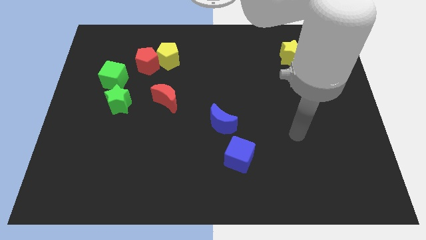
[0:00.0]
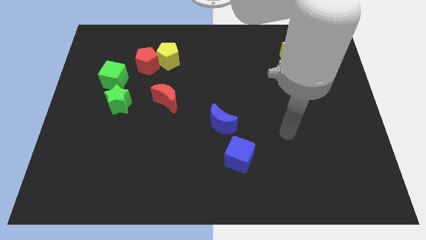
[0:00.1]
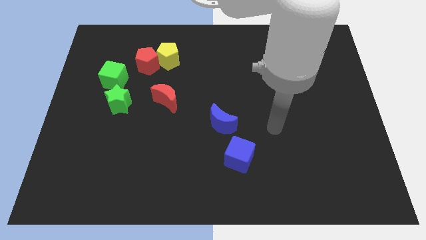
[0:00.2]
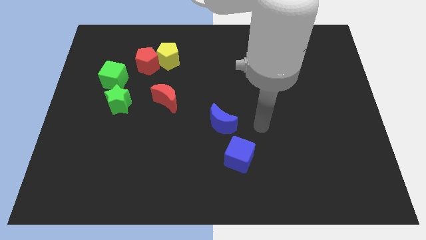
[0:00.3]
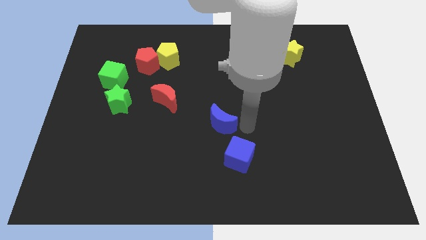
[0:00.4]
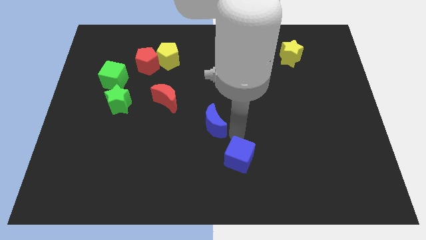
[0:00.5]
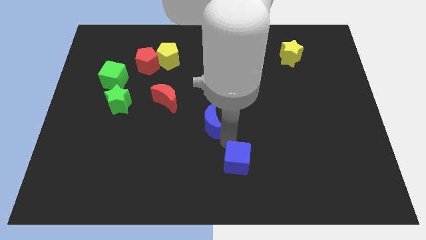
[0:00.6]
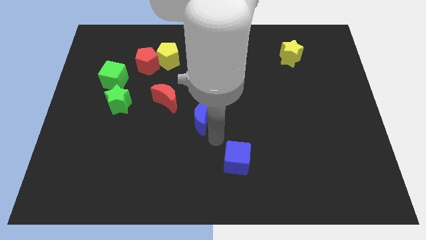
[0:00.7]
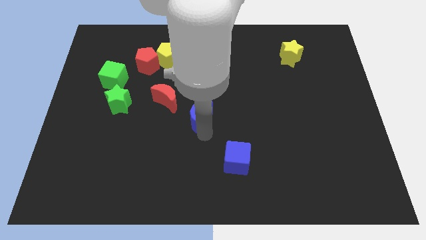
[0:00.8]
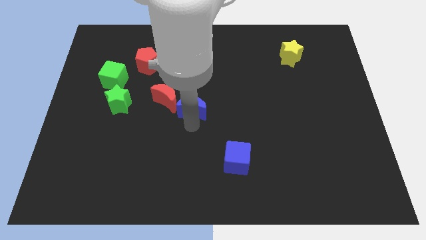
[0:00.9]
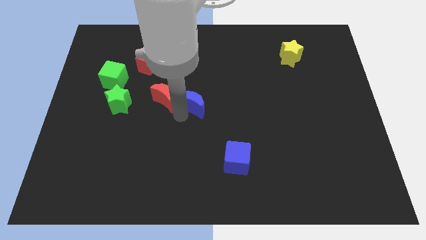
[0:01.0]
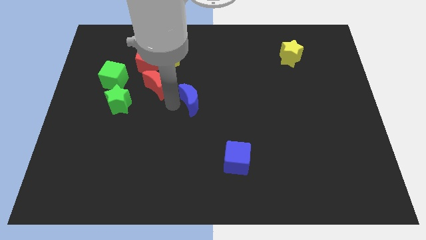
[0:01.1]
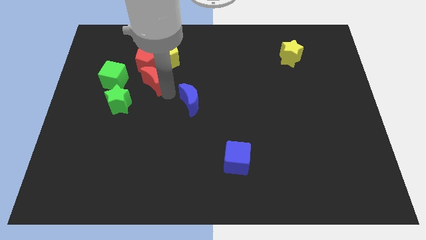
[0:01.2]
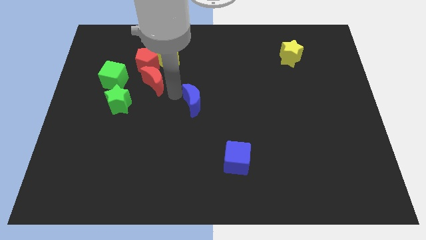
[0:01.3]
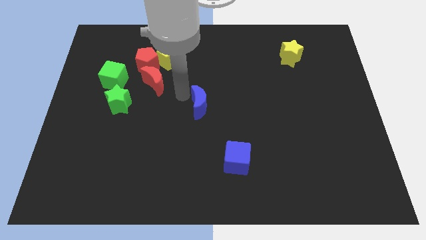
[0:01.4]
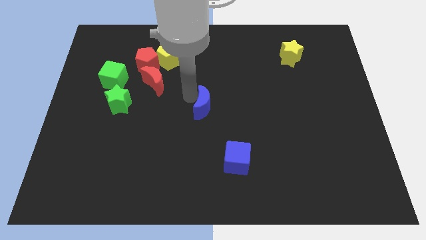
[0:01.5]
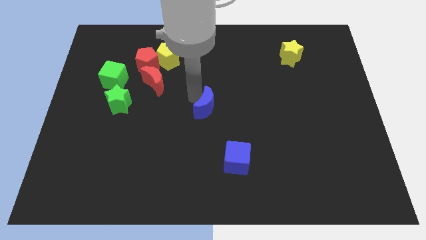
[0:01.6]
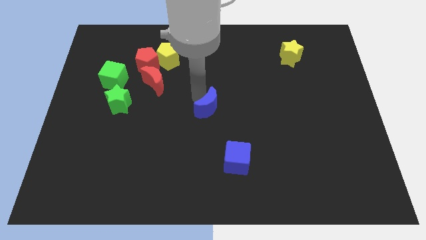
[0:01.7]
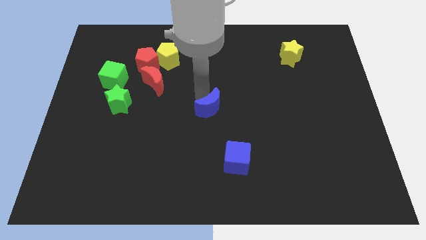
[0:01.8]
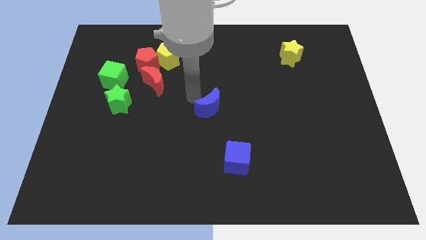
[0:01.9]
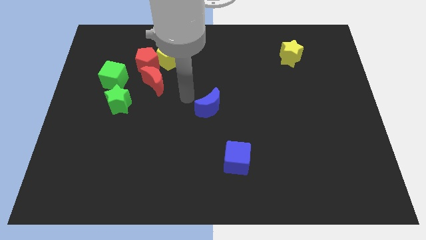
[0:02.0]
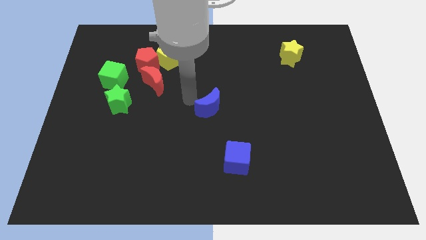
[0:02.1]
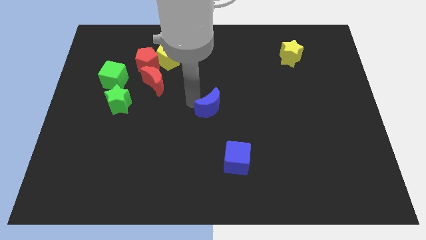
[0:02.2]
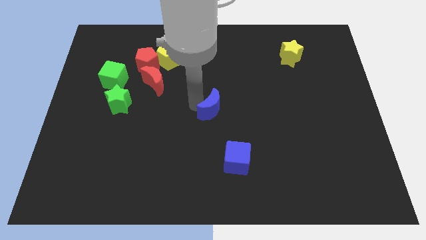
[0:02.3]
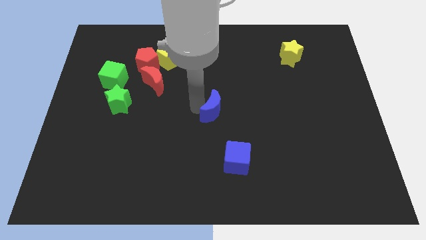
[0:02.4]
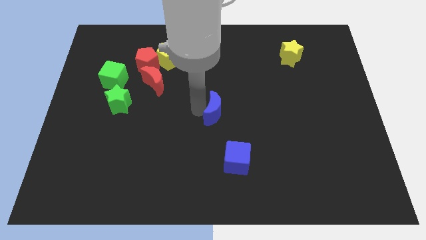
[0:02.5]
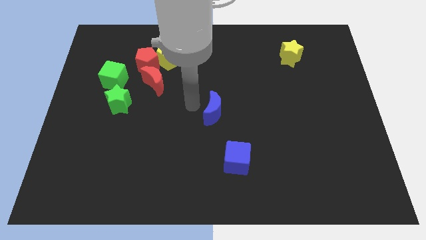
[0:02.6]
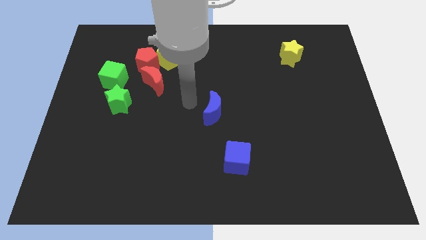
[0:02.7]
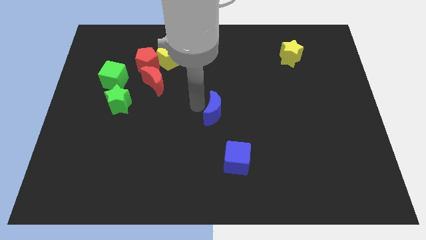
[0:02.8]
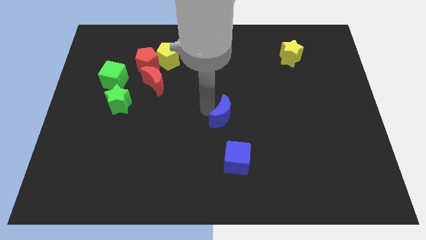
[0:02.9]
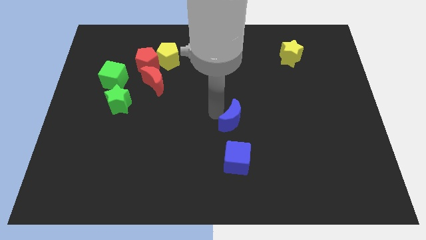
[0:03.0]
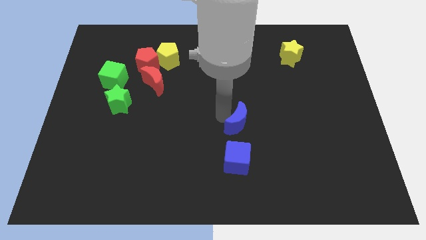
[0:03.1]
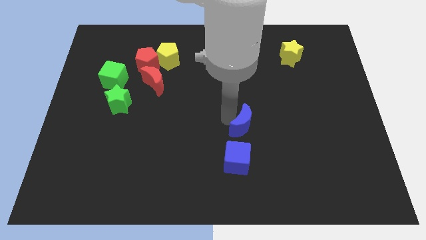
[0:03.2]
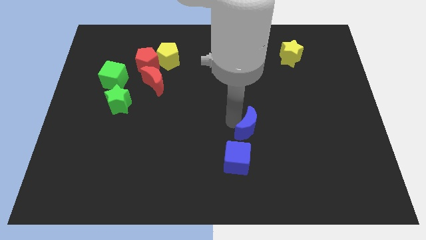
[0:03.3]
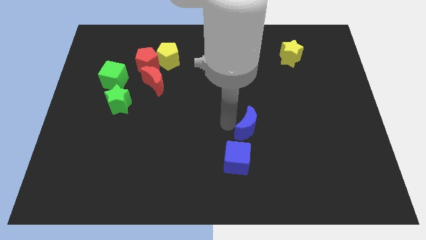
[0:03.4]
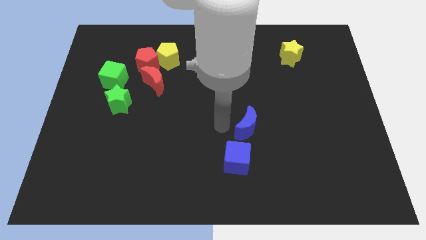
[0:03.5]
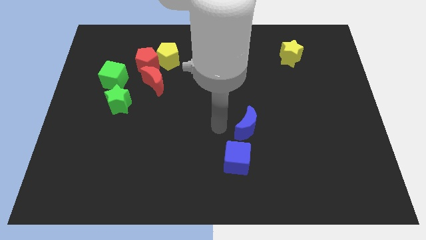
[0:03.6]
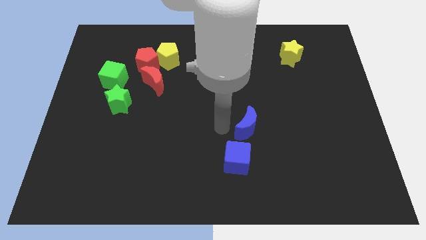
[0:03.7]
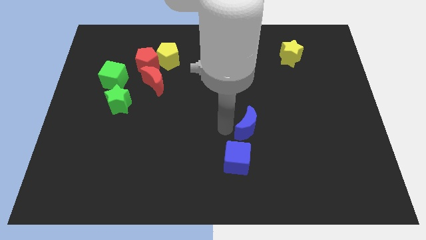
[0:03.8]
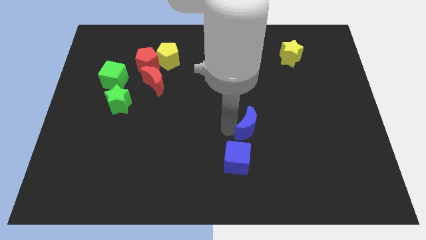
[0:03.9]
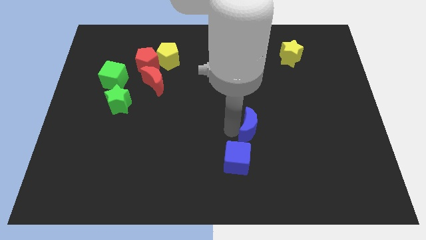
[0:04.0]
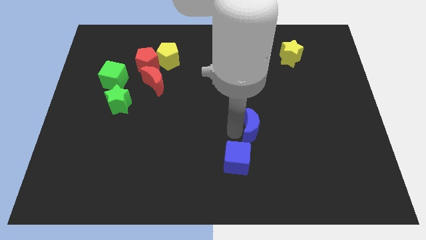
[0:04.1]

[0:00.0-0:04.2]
push the blue moon right a little bit

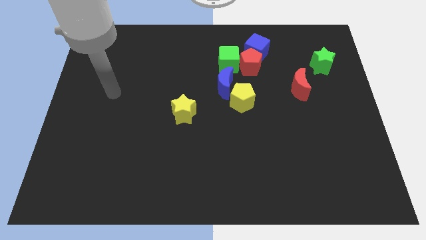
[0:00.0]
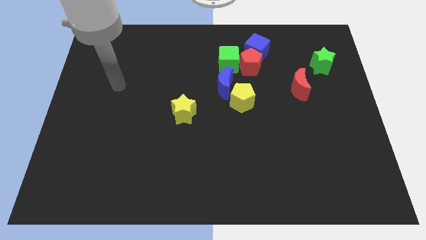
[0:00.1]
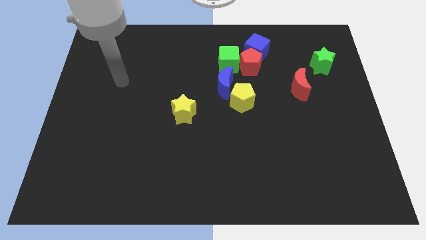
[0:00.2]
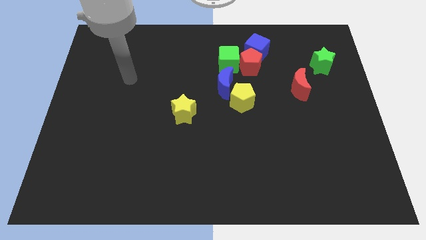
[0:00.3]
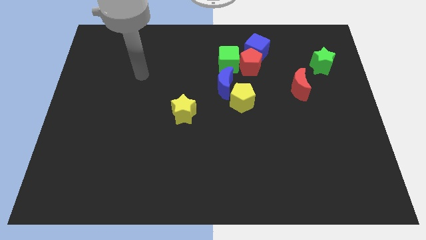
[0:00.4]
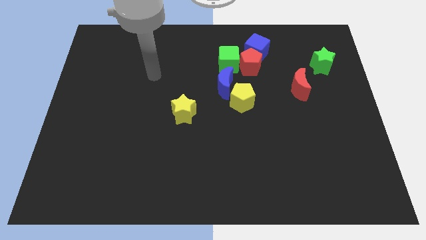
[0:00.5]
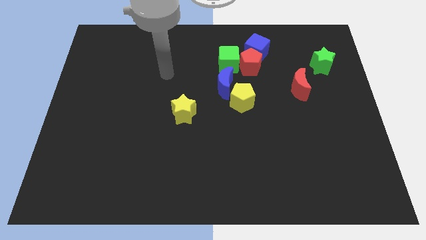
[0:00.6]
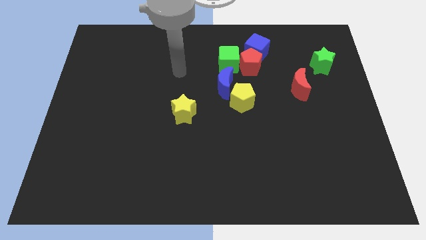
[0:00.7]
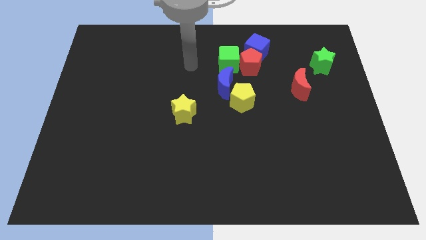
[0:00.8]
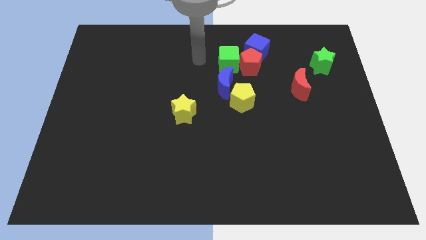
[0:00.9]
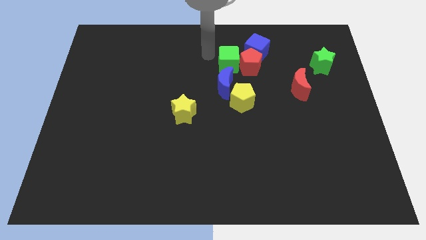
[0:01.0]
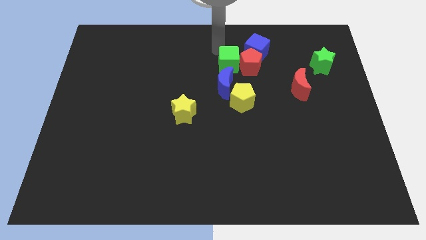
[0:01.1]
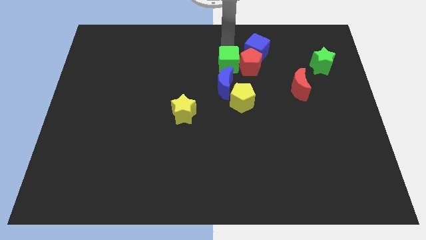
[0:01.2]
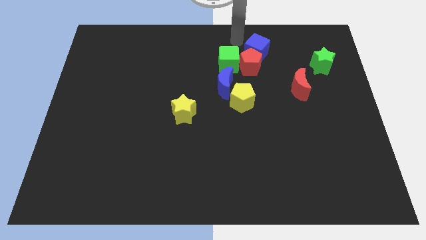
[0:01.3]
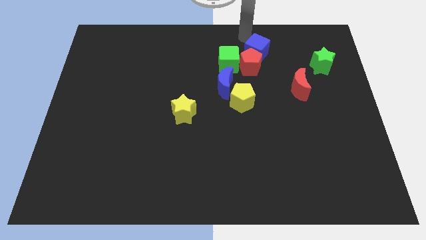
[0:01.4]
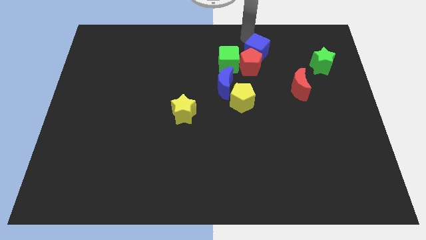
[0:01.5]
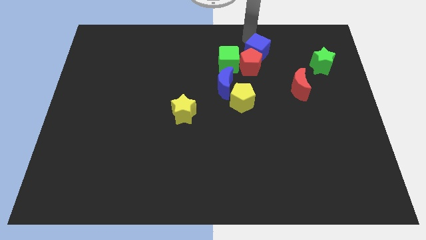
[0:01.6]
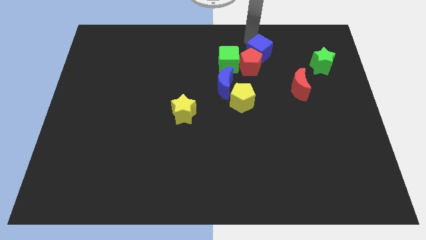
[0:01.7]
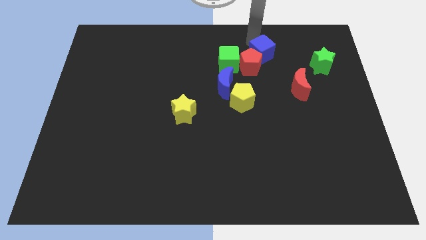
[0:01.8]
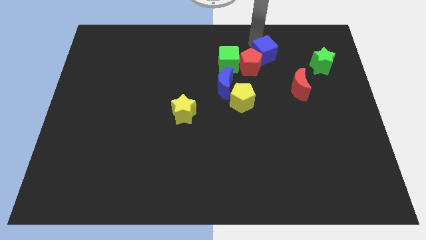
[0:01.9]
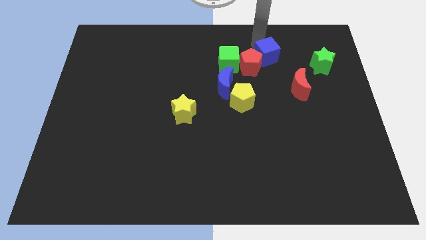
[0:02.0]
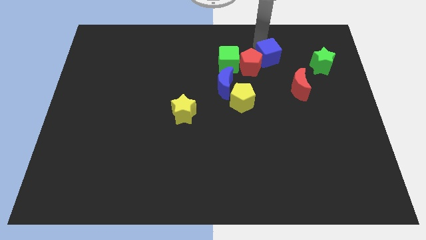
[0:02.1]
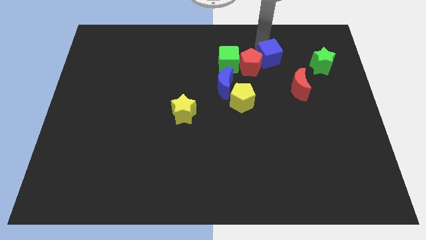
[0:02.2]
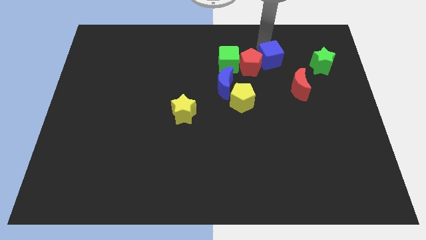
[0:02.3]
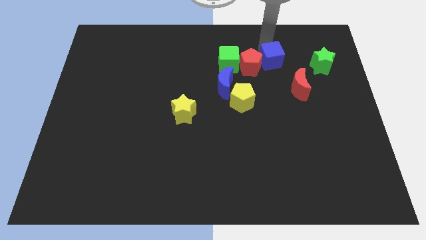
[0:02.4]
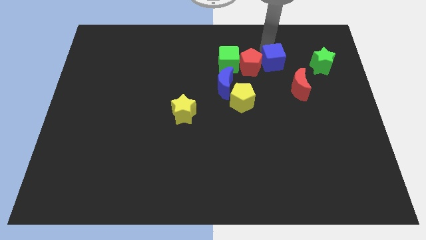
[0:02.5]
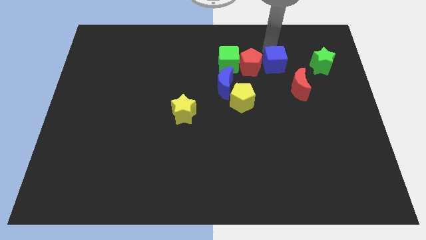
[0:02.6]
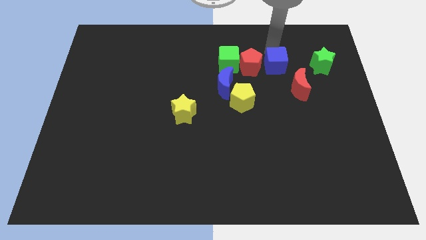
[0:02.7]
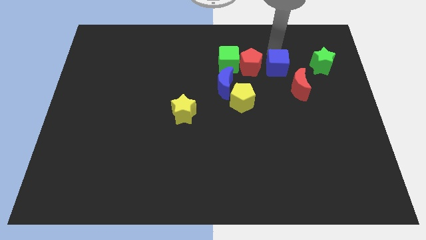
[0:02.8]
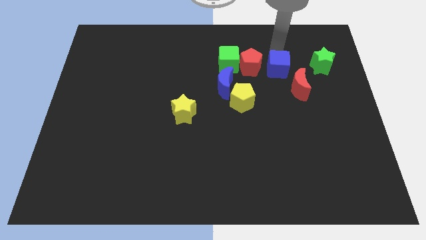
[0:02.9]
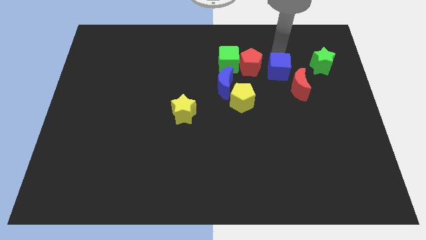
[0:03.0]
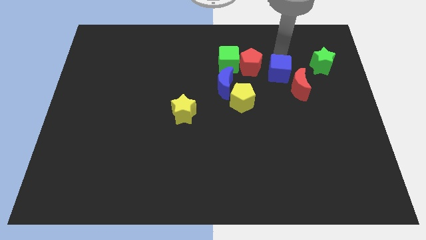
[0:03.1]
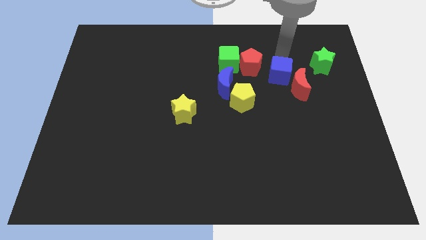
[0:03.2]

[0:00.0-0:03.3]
move the blue cube a bit down

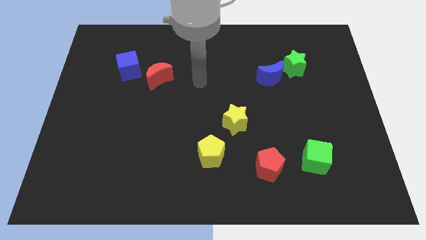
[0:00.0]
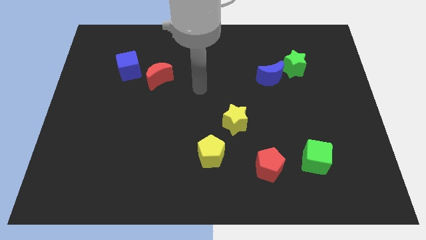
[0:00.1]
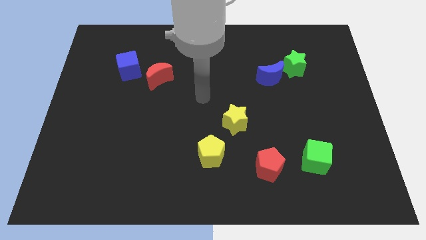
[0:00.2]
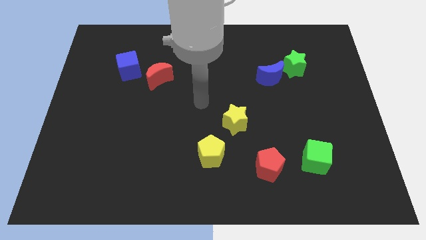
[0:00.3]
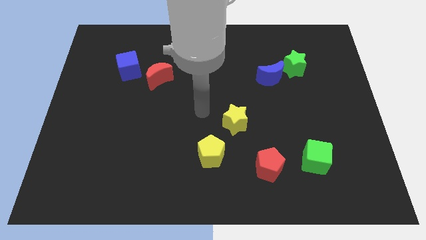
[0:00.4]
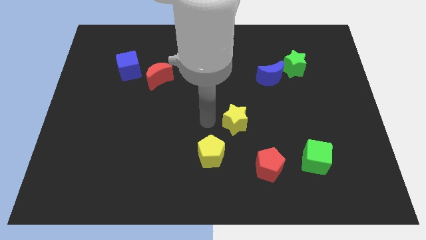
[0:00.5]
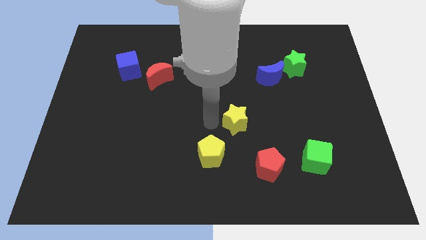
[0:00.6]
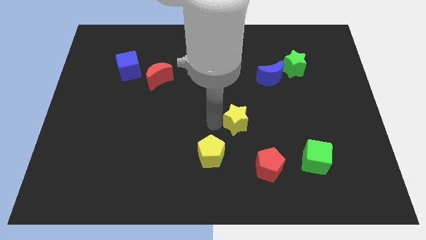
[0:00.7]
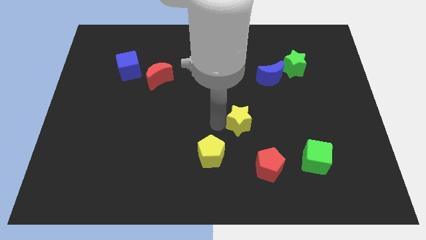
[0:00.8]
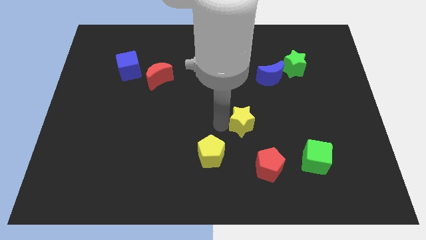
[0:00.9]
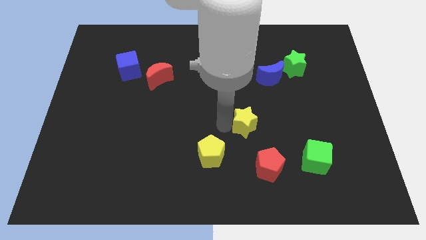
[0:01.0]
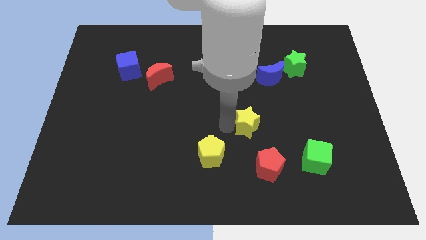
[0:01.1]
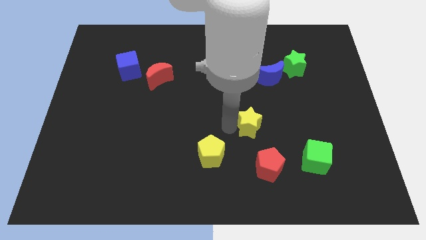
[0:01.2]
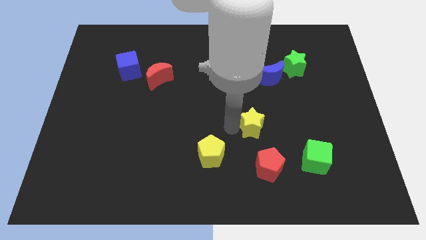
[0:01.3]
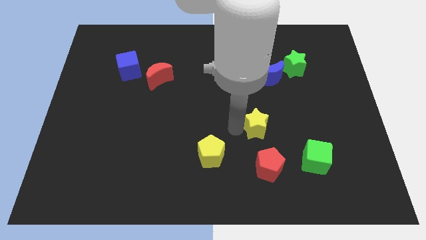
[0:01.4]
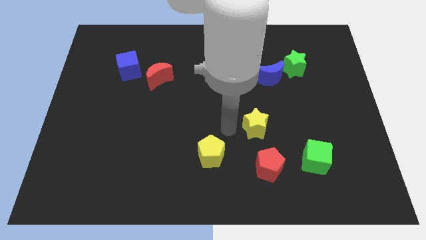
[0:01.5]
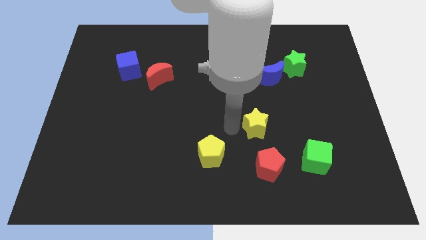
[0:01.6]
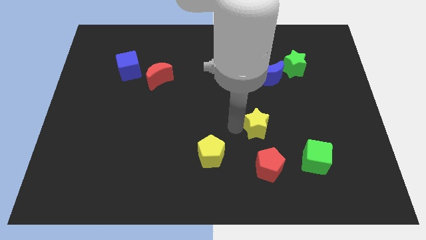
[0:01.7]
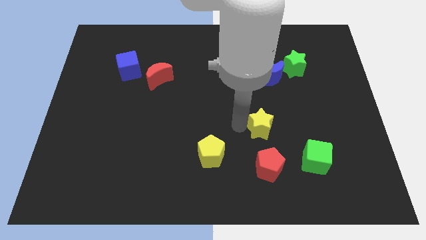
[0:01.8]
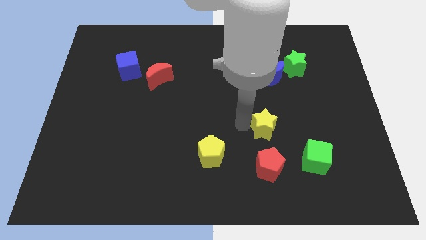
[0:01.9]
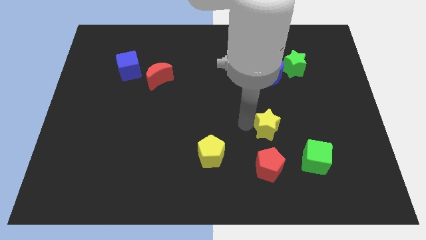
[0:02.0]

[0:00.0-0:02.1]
slide the yellow star to the right slightly
